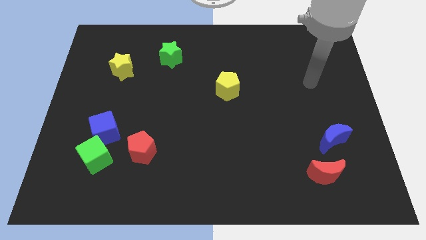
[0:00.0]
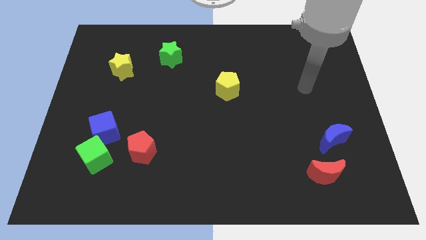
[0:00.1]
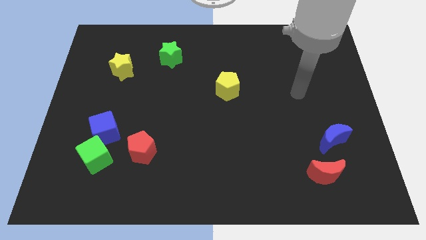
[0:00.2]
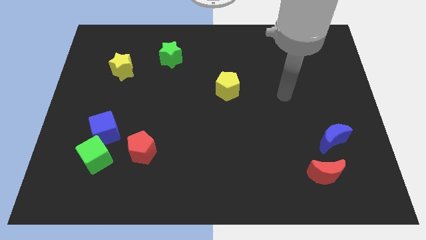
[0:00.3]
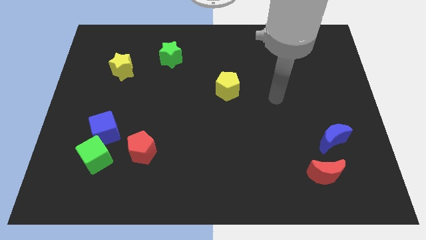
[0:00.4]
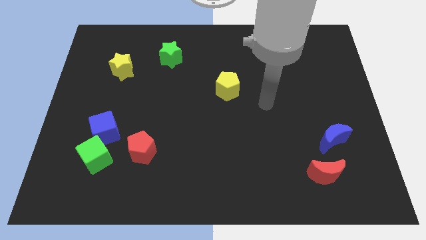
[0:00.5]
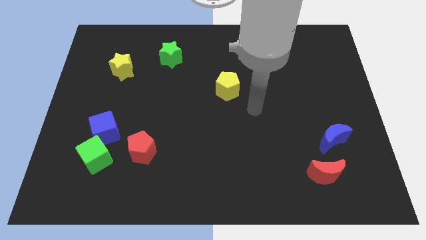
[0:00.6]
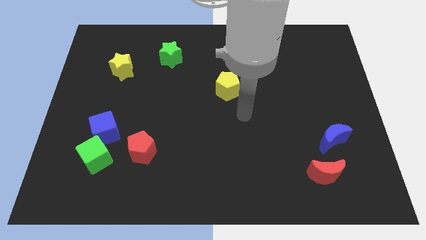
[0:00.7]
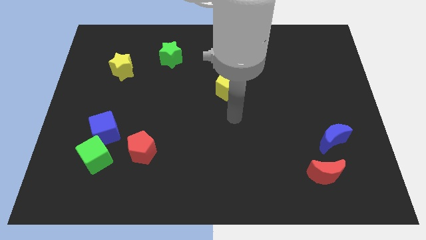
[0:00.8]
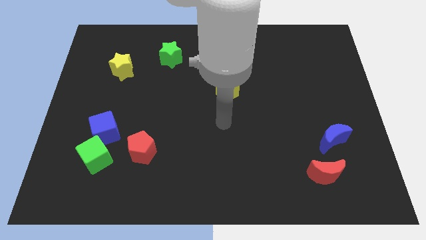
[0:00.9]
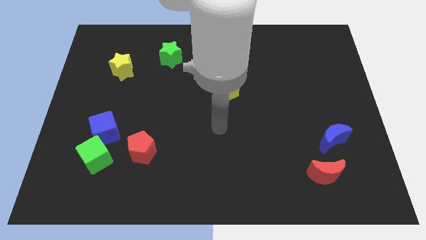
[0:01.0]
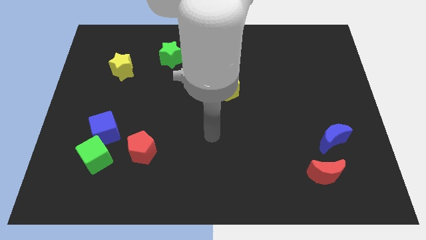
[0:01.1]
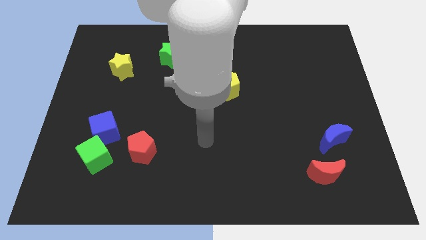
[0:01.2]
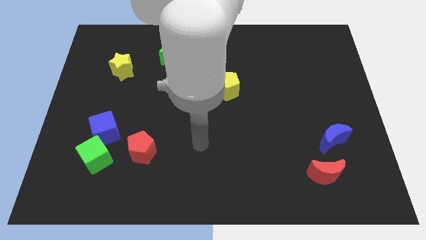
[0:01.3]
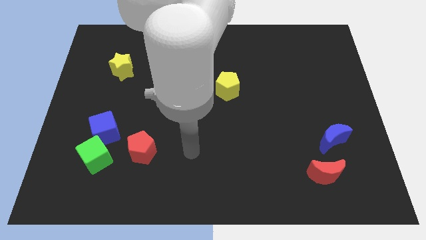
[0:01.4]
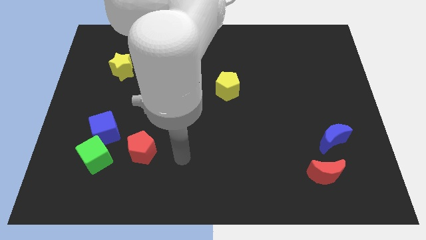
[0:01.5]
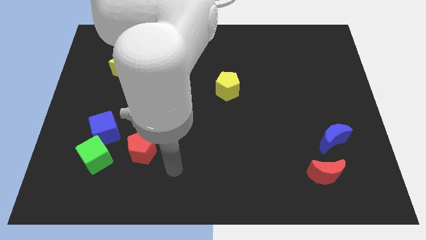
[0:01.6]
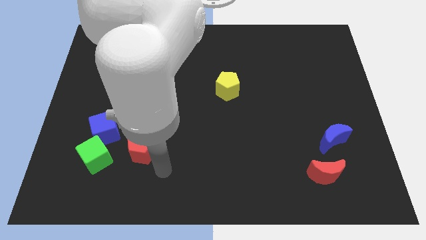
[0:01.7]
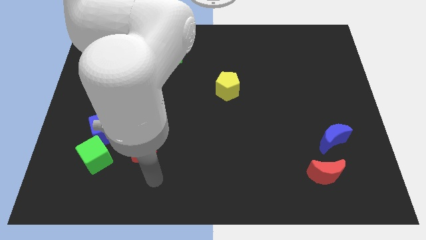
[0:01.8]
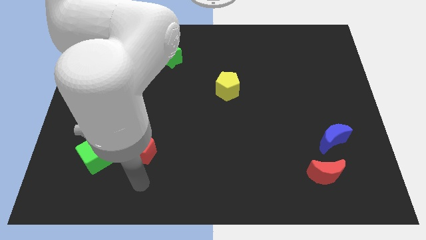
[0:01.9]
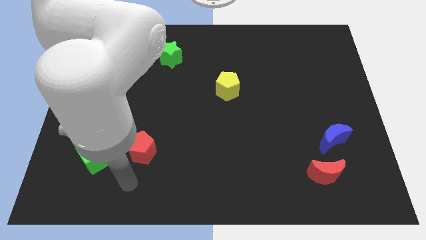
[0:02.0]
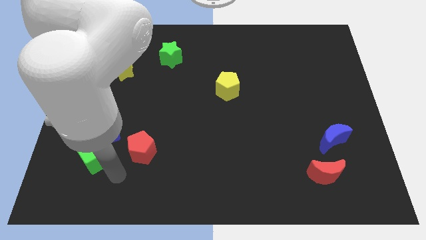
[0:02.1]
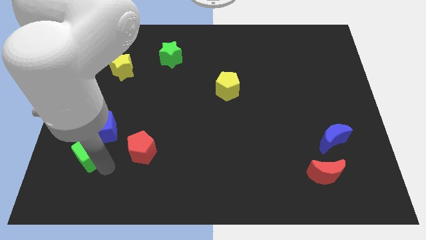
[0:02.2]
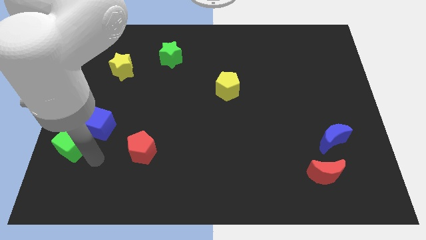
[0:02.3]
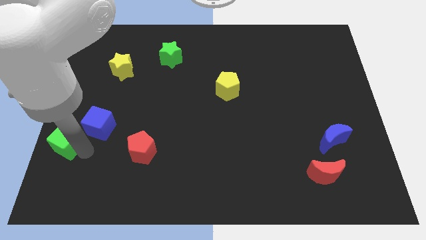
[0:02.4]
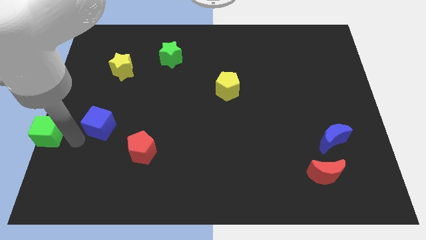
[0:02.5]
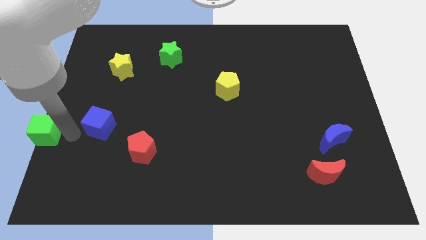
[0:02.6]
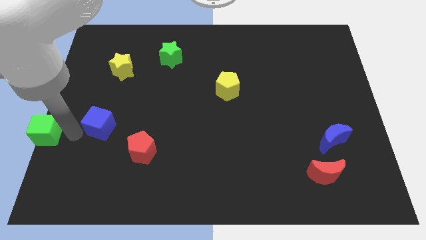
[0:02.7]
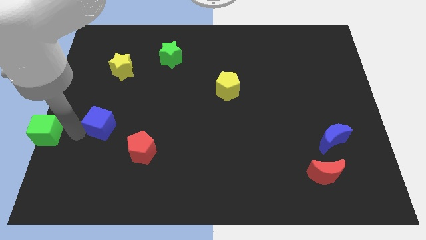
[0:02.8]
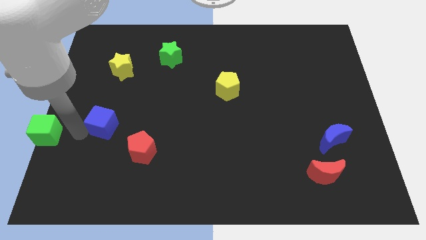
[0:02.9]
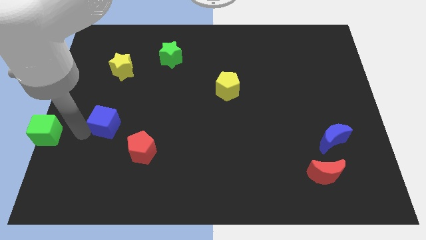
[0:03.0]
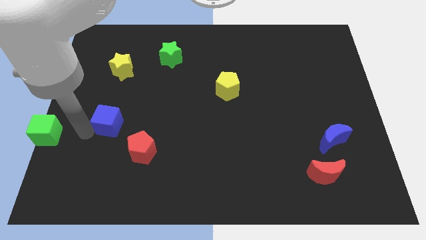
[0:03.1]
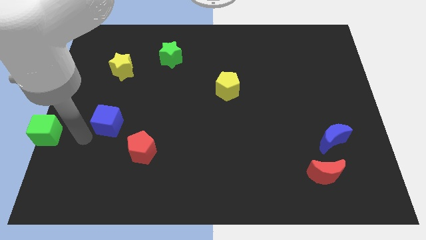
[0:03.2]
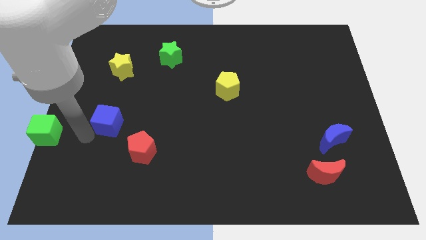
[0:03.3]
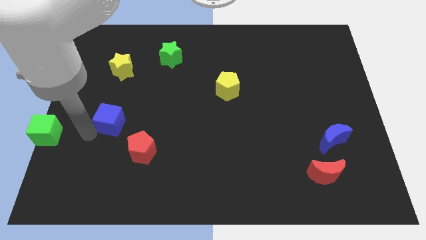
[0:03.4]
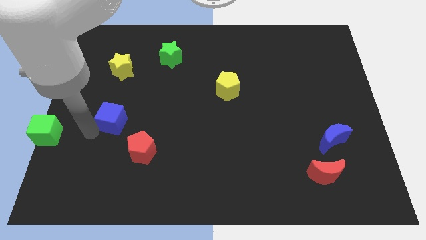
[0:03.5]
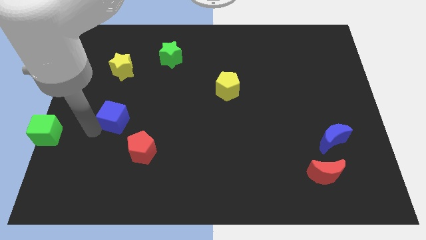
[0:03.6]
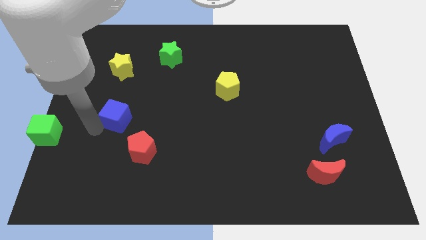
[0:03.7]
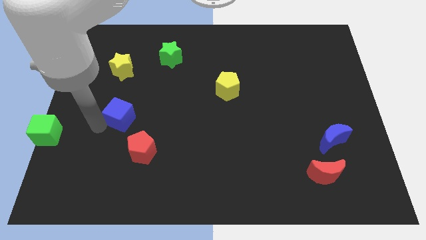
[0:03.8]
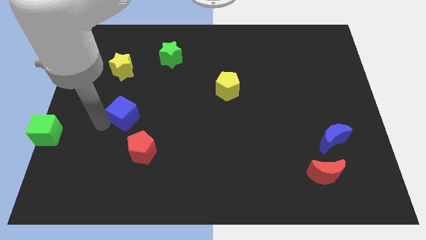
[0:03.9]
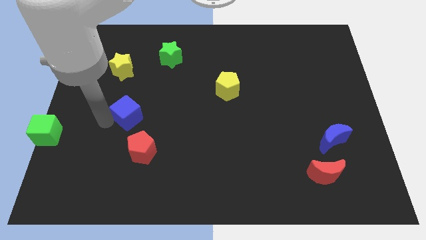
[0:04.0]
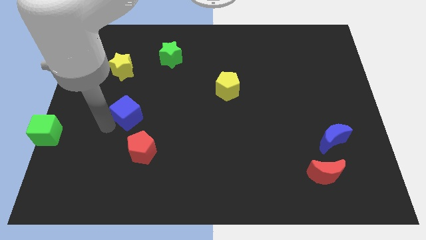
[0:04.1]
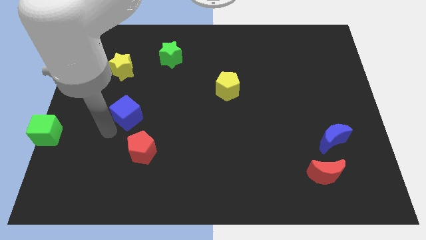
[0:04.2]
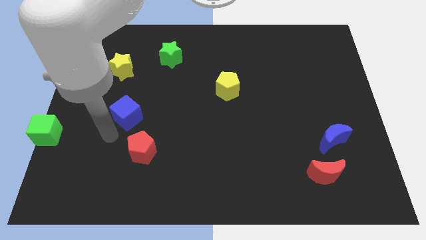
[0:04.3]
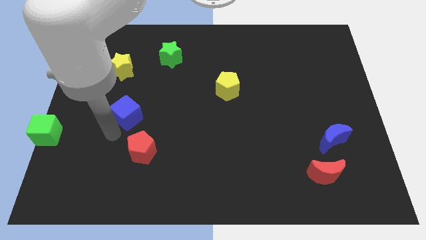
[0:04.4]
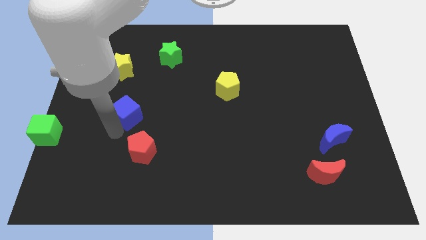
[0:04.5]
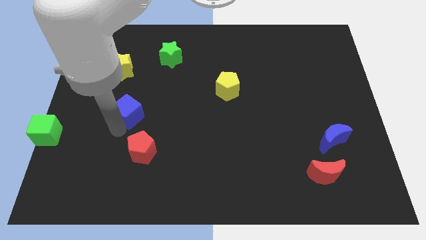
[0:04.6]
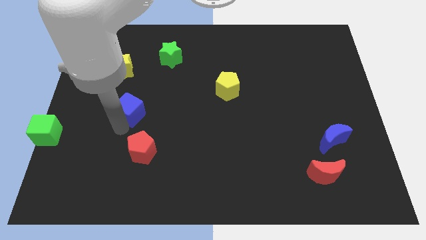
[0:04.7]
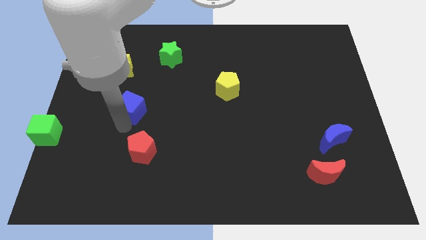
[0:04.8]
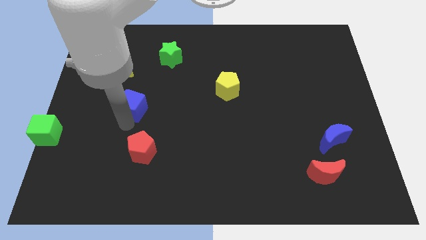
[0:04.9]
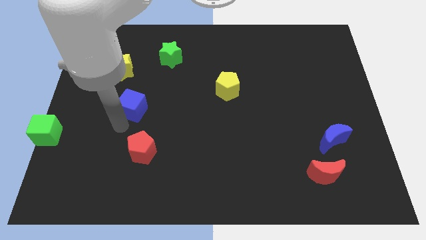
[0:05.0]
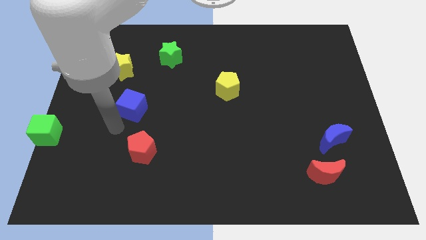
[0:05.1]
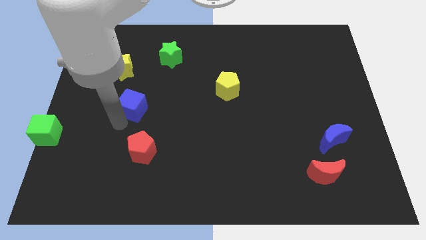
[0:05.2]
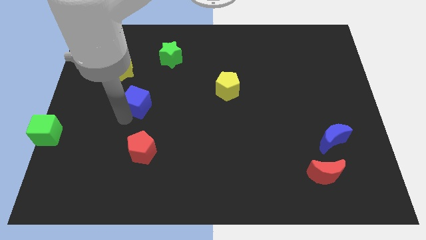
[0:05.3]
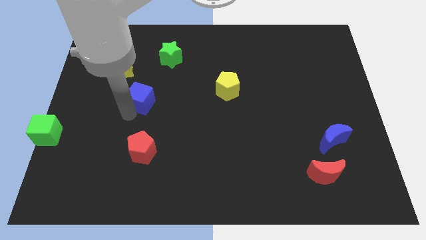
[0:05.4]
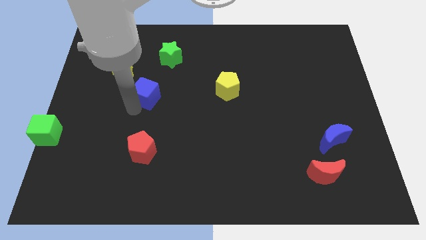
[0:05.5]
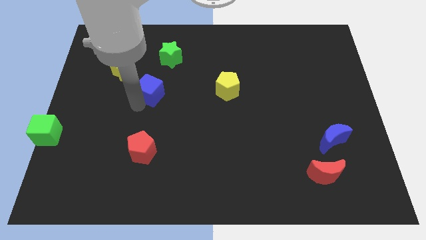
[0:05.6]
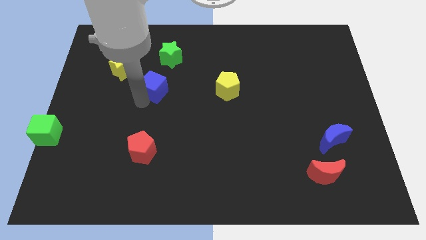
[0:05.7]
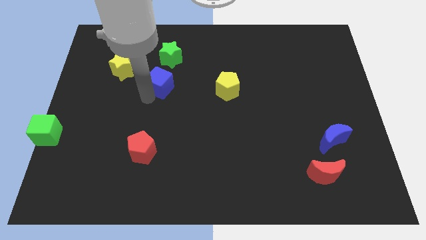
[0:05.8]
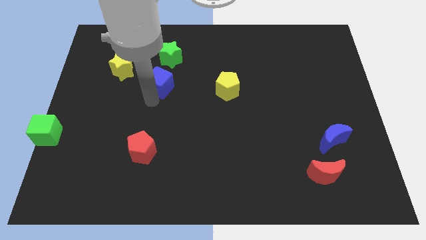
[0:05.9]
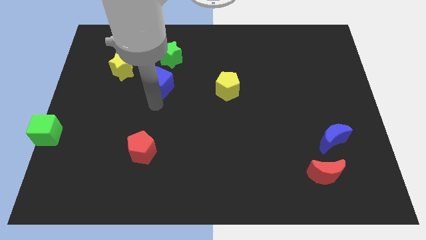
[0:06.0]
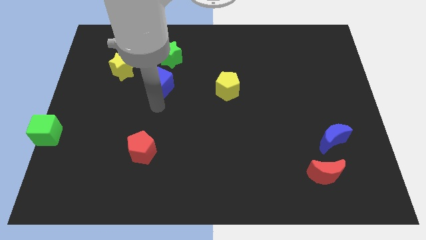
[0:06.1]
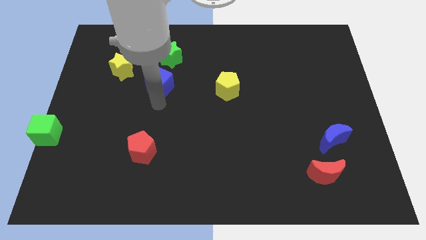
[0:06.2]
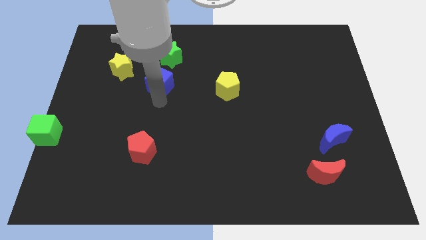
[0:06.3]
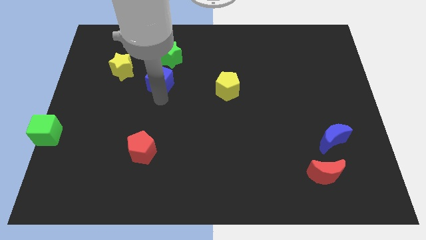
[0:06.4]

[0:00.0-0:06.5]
move the blue cube right of the yellow star

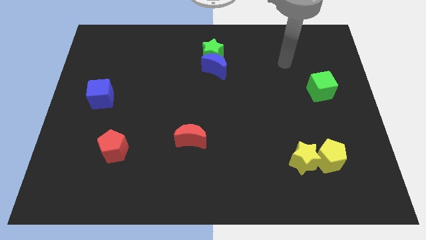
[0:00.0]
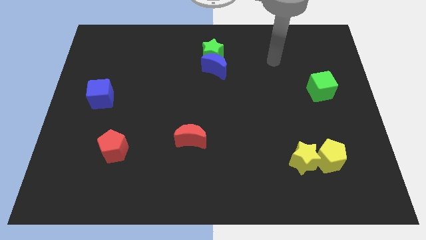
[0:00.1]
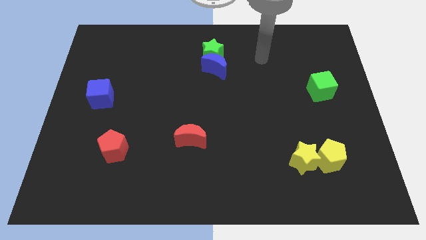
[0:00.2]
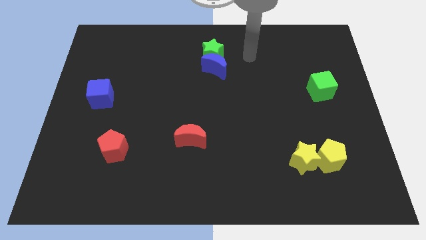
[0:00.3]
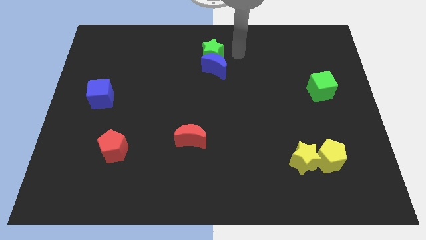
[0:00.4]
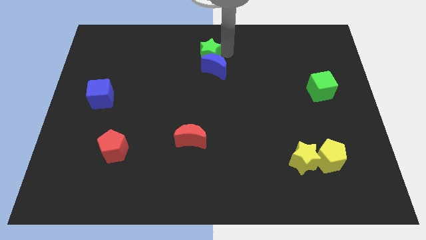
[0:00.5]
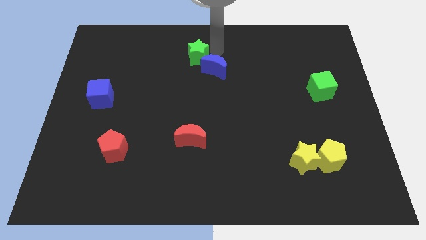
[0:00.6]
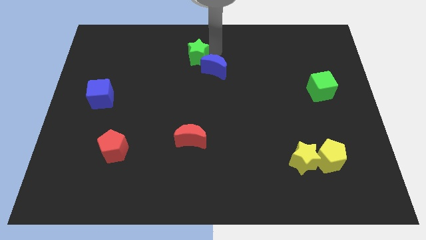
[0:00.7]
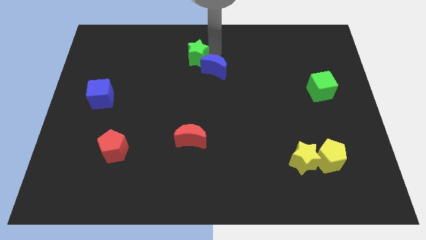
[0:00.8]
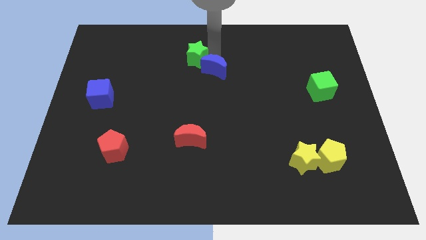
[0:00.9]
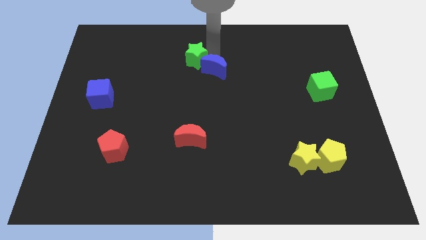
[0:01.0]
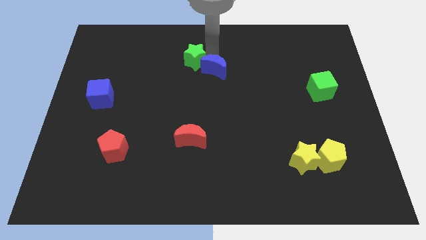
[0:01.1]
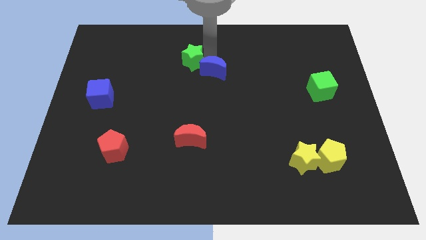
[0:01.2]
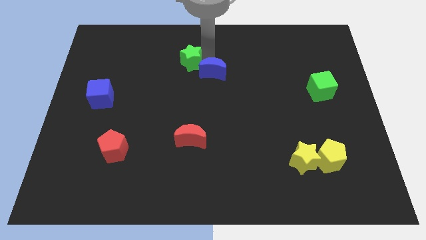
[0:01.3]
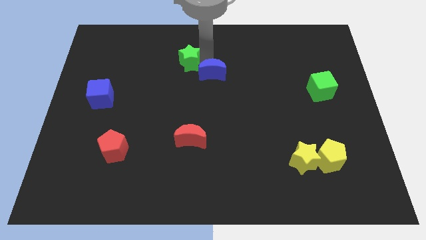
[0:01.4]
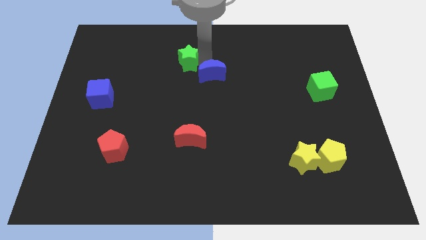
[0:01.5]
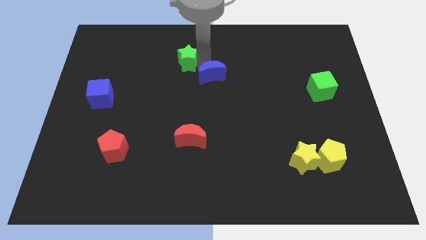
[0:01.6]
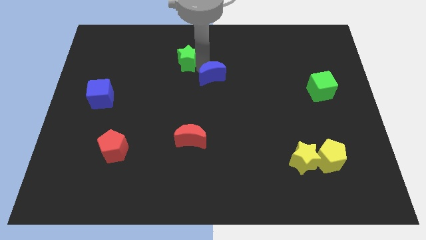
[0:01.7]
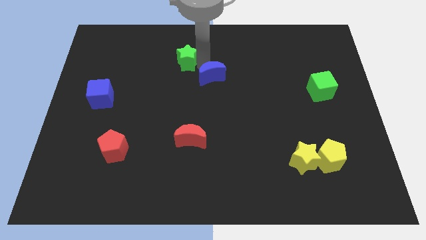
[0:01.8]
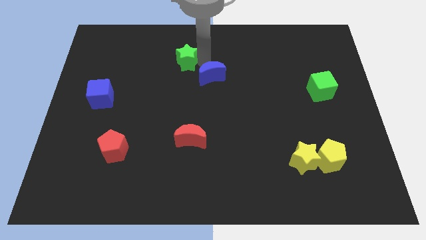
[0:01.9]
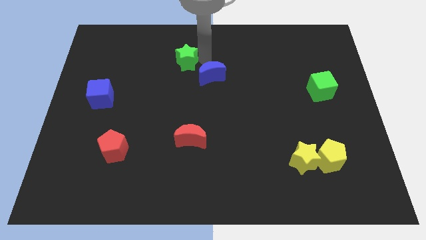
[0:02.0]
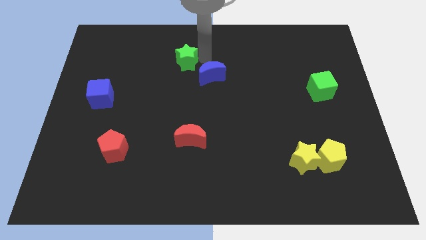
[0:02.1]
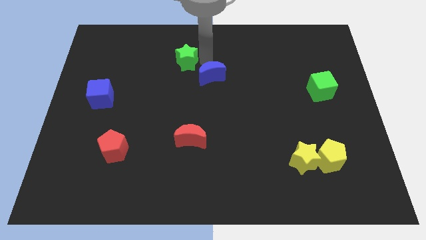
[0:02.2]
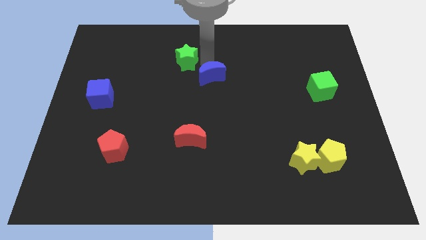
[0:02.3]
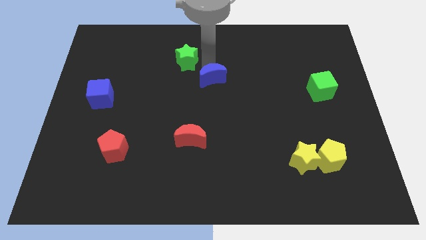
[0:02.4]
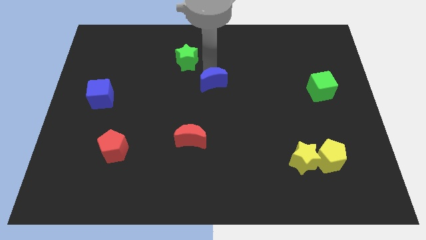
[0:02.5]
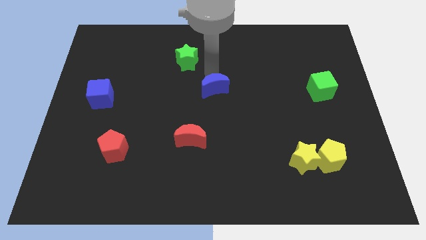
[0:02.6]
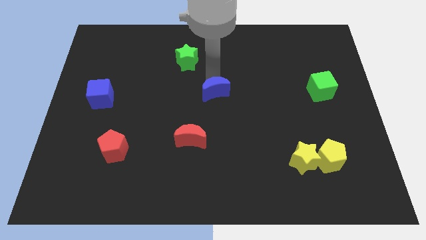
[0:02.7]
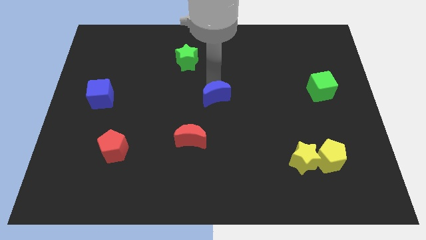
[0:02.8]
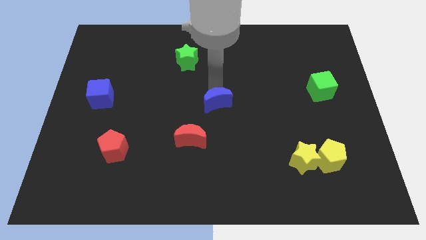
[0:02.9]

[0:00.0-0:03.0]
put the blue moon diagonally up and to the right of the red moon
